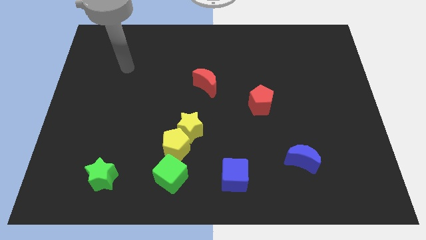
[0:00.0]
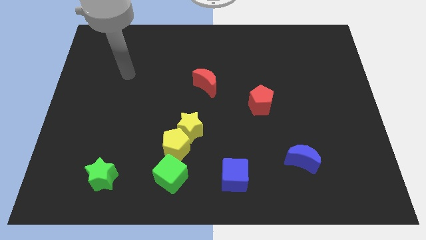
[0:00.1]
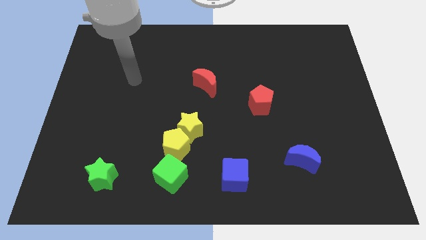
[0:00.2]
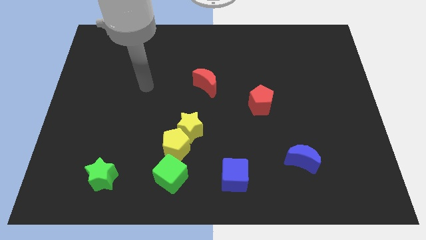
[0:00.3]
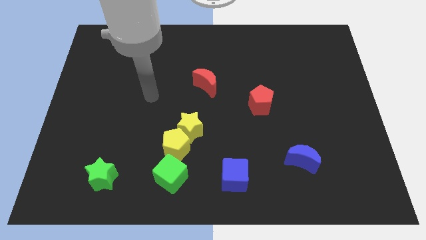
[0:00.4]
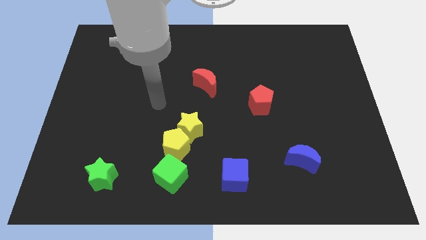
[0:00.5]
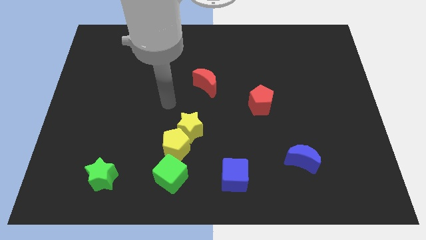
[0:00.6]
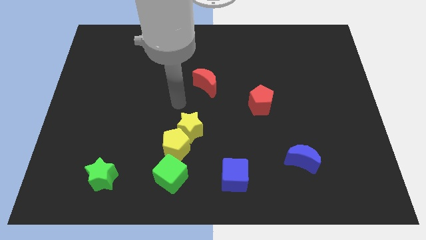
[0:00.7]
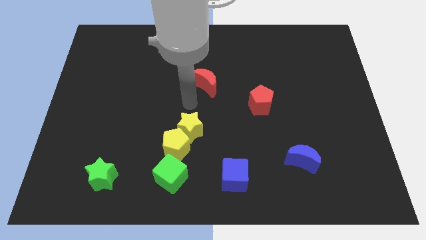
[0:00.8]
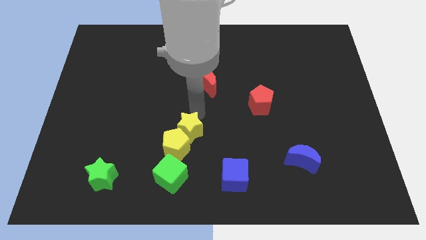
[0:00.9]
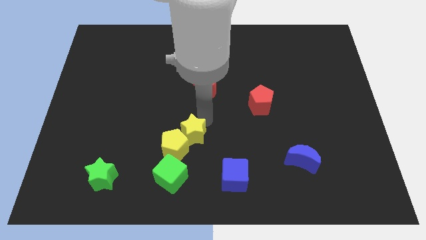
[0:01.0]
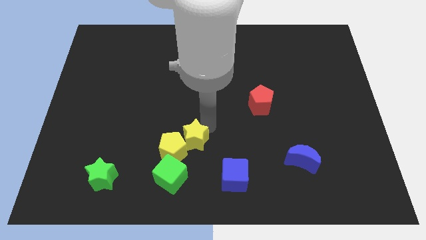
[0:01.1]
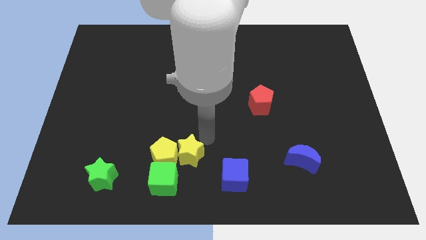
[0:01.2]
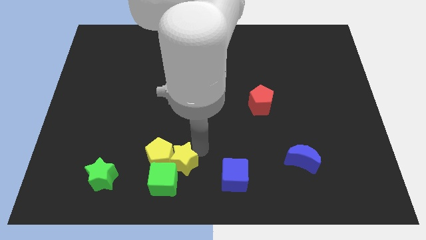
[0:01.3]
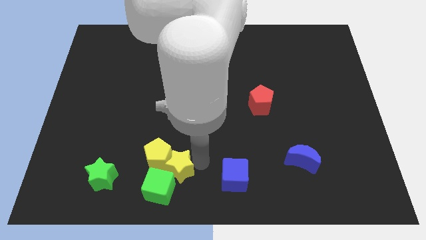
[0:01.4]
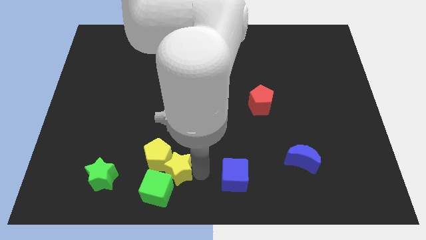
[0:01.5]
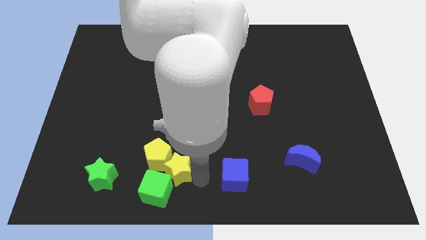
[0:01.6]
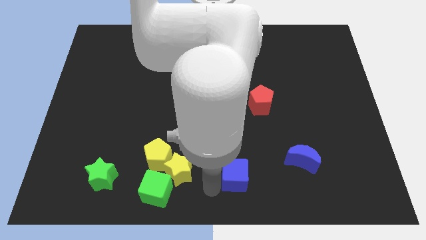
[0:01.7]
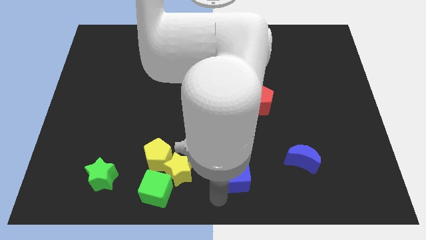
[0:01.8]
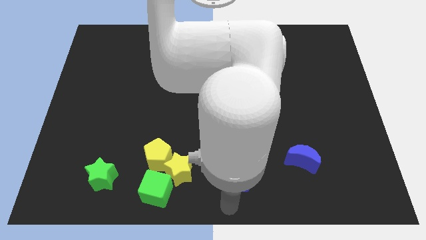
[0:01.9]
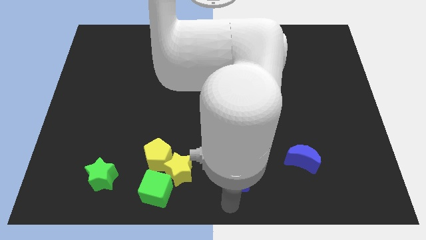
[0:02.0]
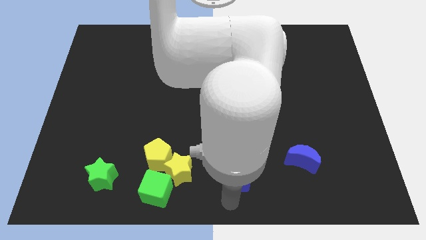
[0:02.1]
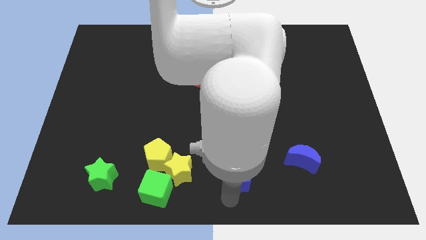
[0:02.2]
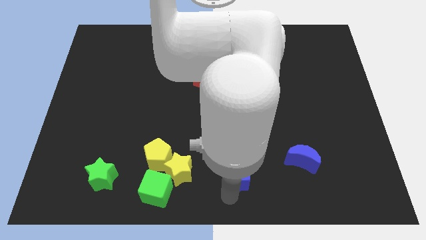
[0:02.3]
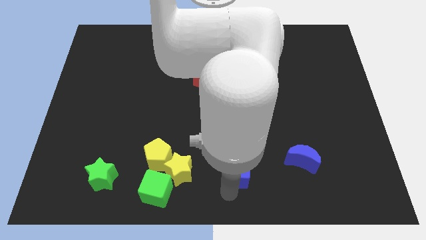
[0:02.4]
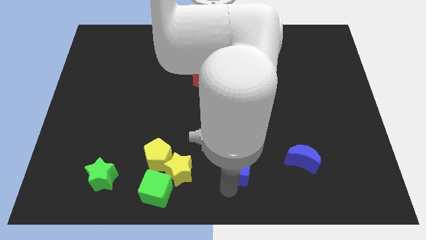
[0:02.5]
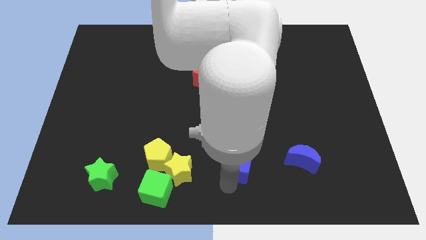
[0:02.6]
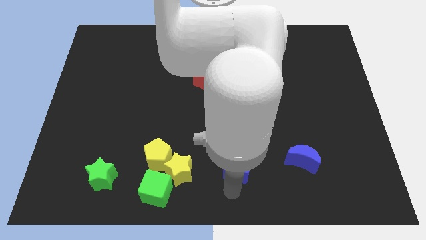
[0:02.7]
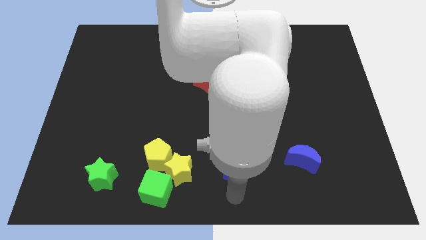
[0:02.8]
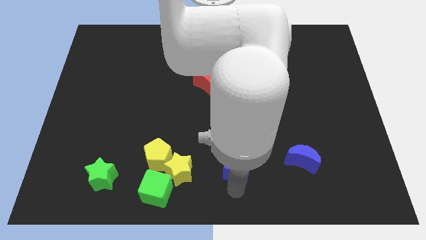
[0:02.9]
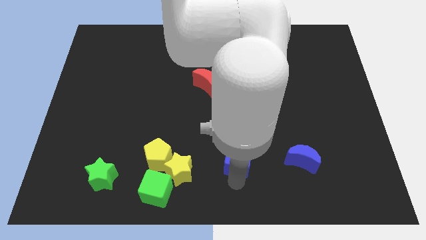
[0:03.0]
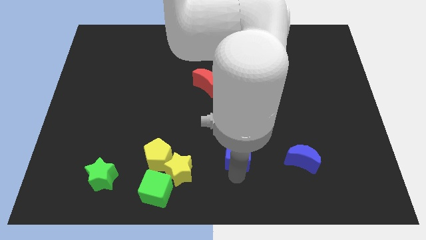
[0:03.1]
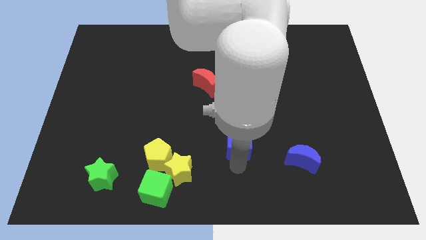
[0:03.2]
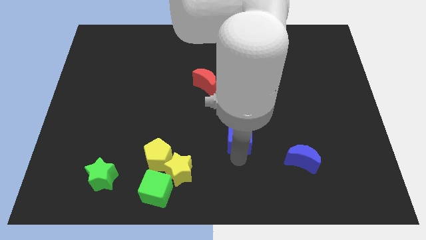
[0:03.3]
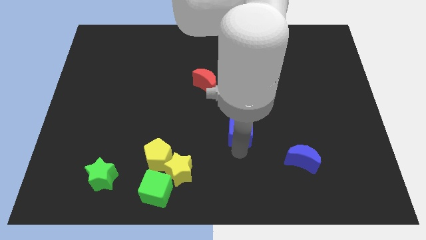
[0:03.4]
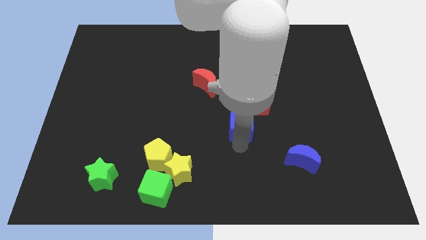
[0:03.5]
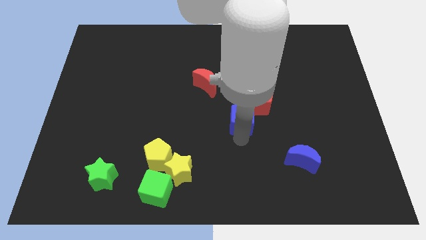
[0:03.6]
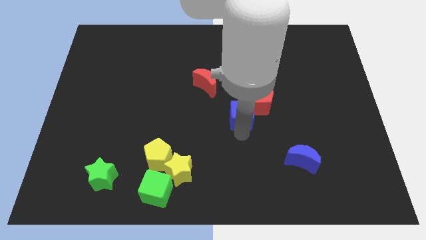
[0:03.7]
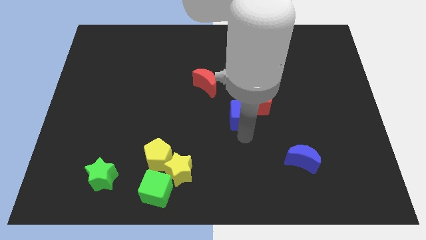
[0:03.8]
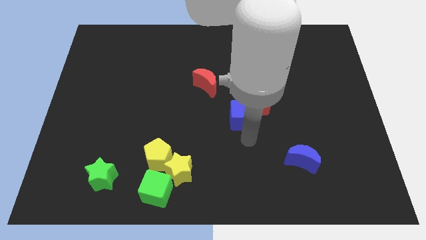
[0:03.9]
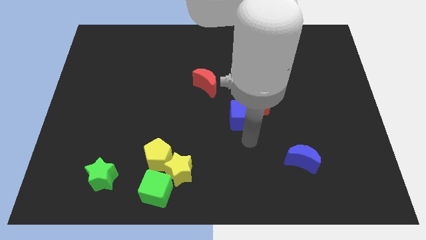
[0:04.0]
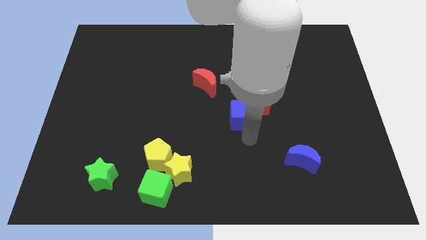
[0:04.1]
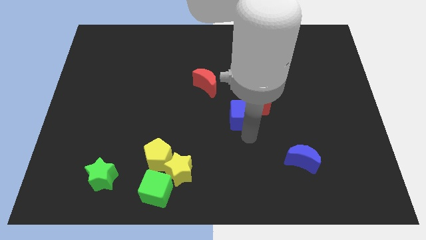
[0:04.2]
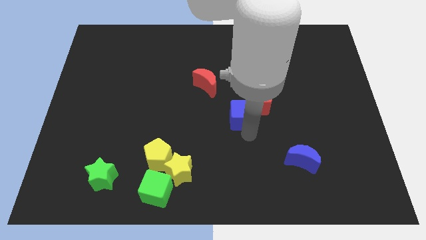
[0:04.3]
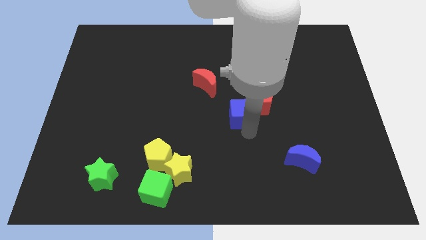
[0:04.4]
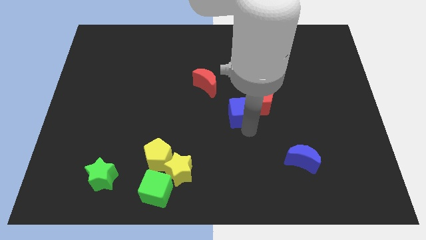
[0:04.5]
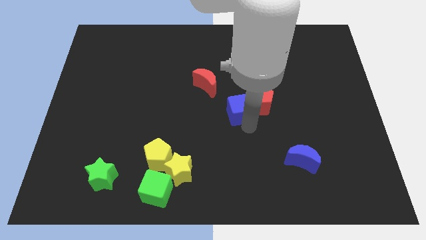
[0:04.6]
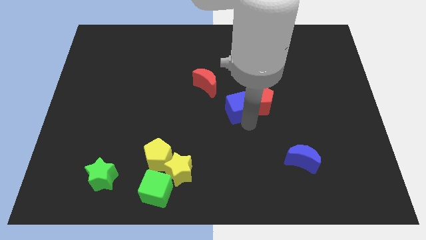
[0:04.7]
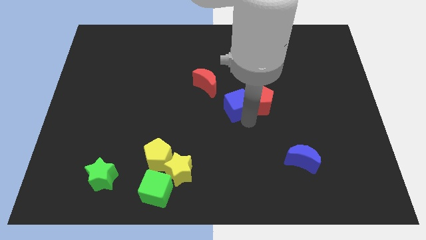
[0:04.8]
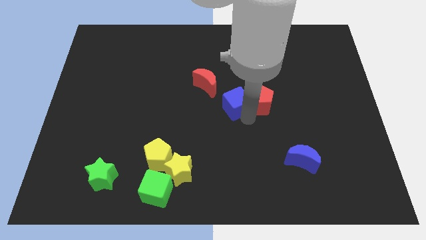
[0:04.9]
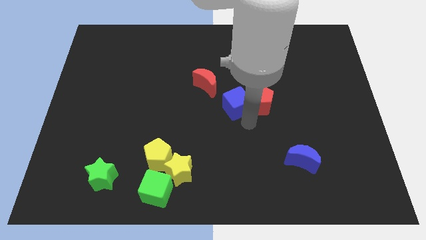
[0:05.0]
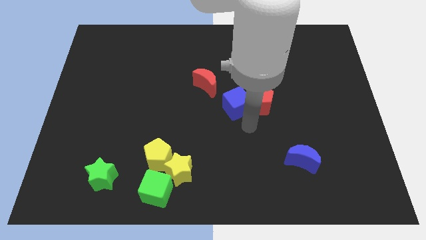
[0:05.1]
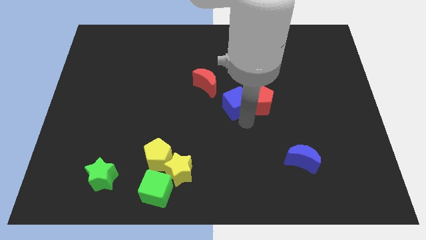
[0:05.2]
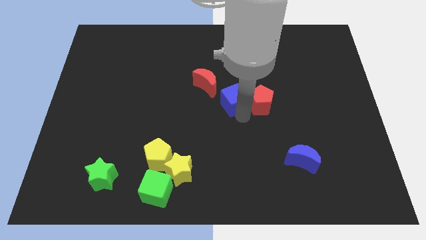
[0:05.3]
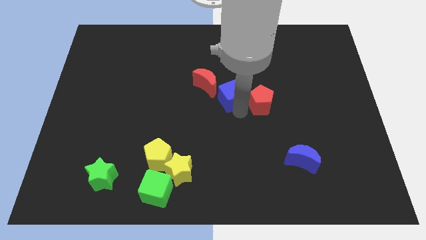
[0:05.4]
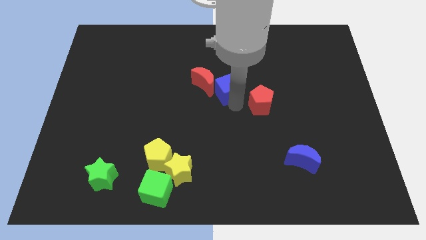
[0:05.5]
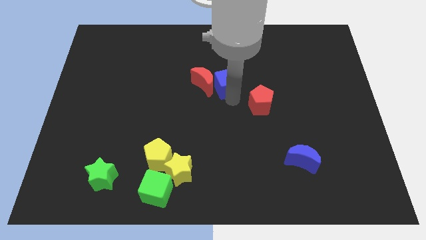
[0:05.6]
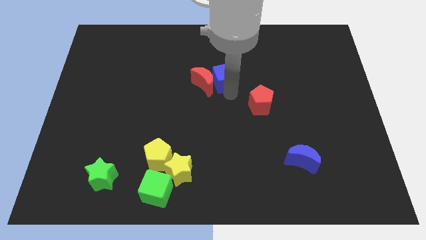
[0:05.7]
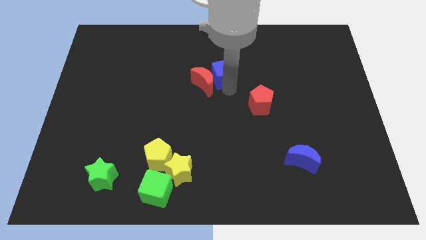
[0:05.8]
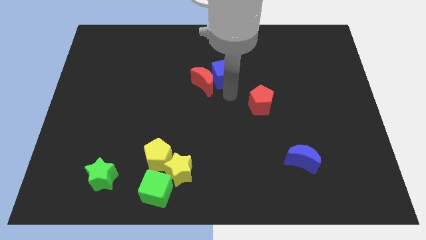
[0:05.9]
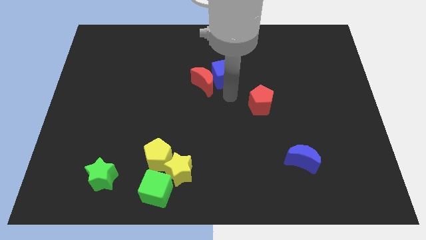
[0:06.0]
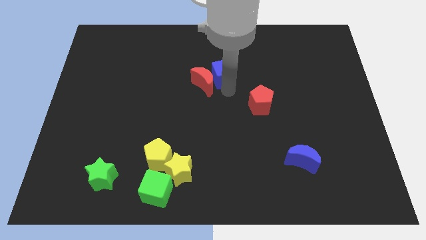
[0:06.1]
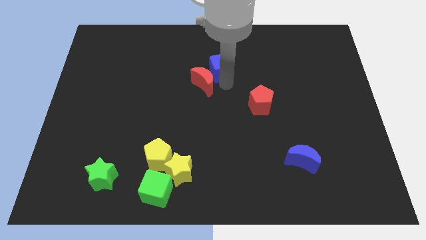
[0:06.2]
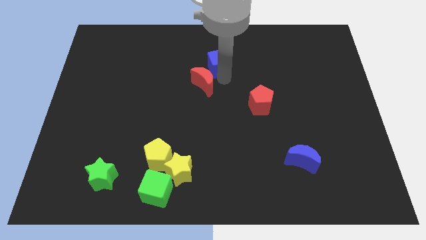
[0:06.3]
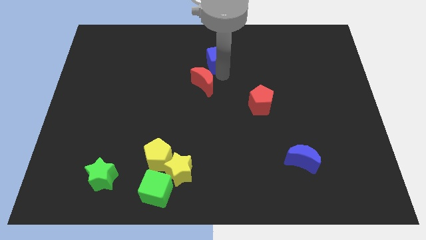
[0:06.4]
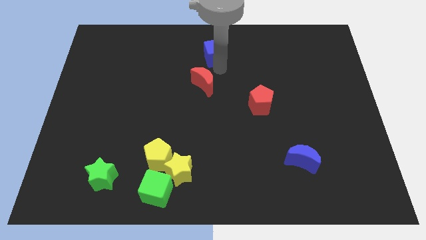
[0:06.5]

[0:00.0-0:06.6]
move the blue cube to the top

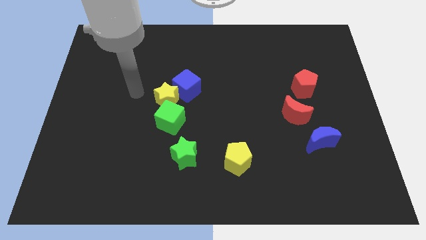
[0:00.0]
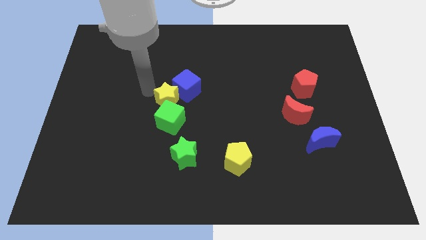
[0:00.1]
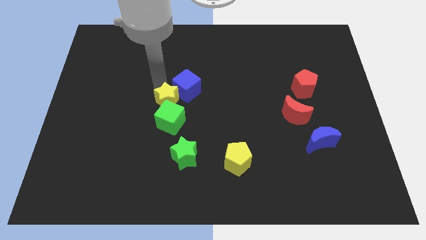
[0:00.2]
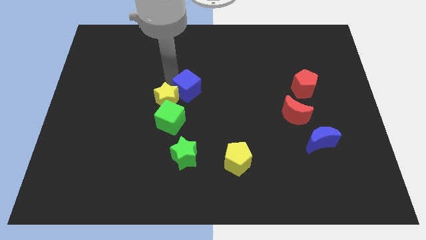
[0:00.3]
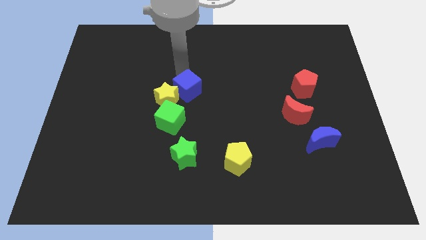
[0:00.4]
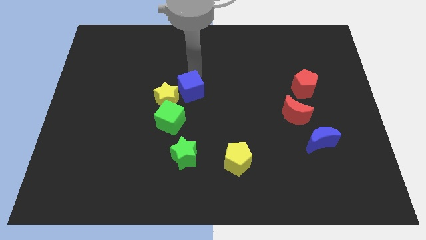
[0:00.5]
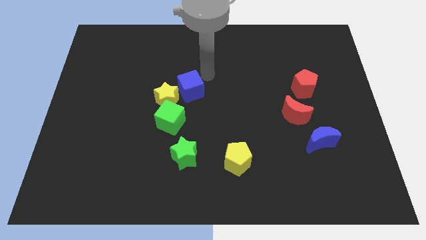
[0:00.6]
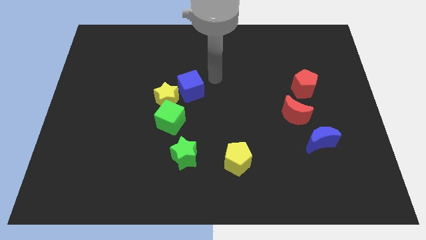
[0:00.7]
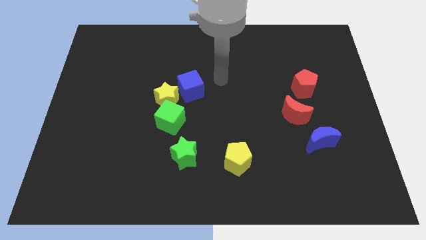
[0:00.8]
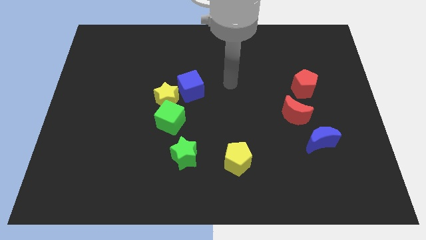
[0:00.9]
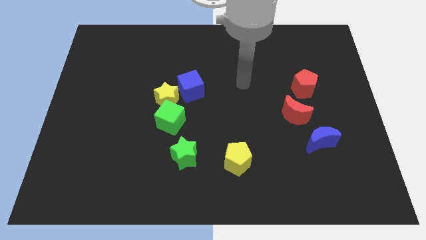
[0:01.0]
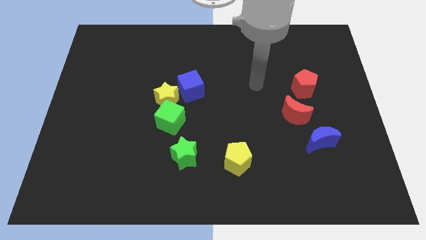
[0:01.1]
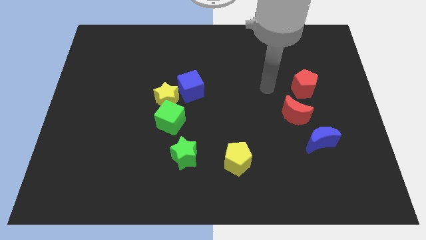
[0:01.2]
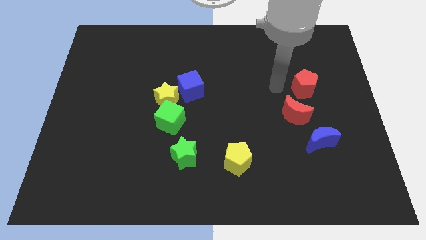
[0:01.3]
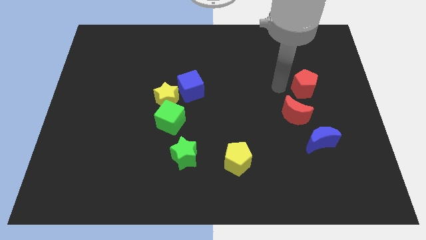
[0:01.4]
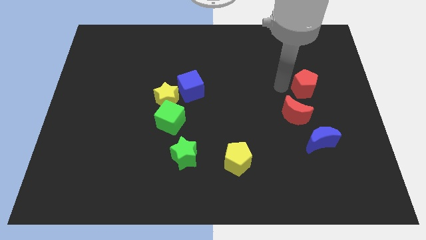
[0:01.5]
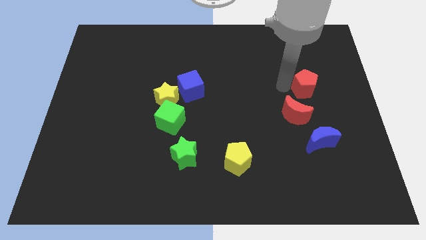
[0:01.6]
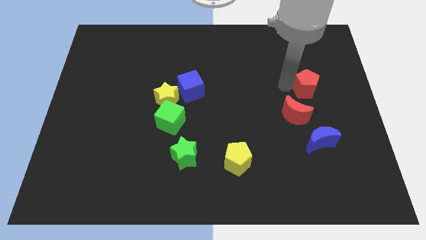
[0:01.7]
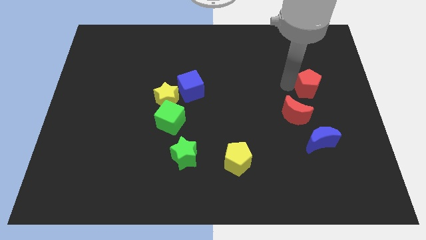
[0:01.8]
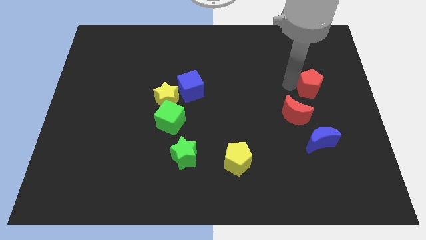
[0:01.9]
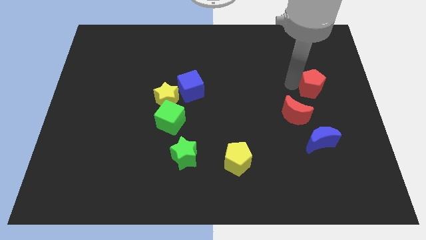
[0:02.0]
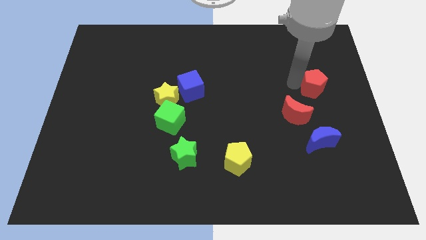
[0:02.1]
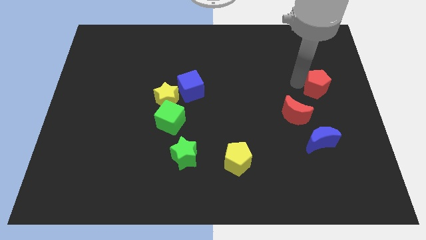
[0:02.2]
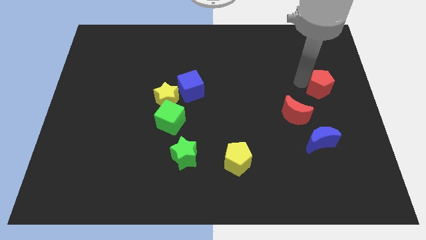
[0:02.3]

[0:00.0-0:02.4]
push the red pentagon to the right side of the board
